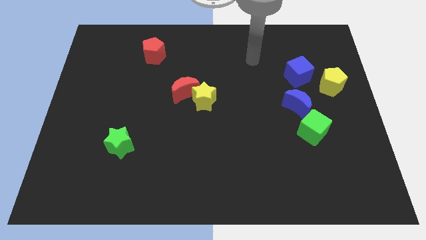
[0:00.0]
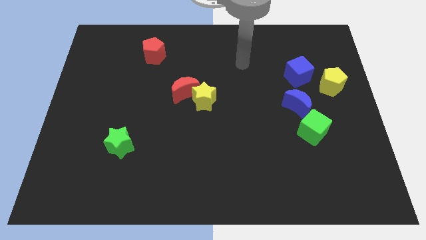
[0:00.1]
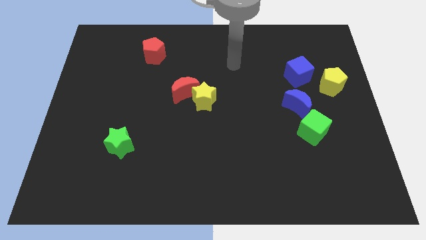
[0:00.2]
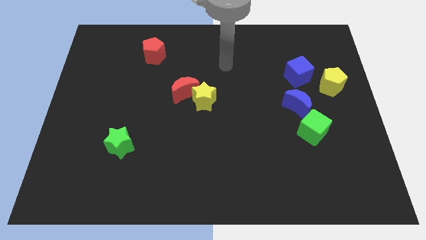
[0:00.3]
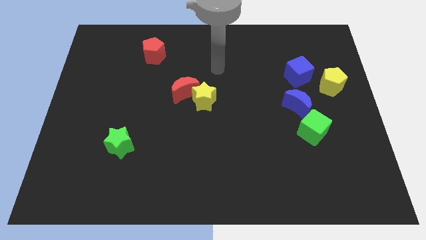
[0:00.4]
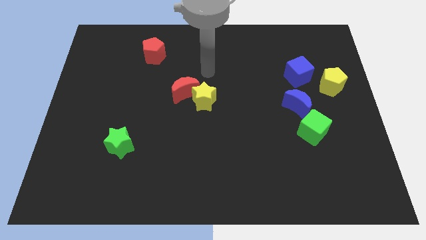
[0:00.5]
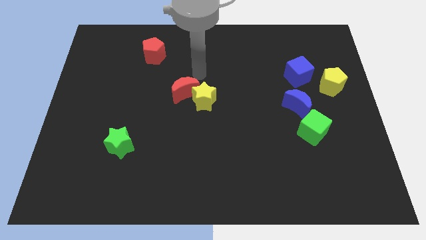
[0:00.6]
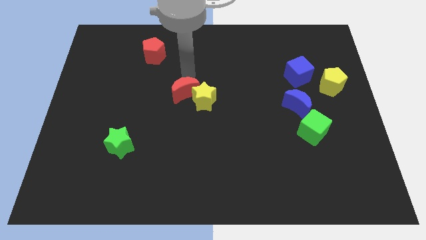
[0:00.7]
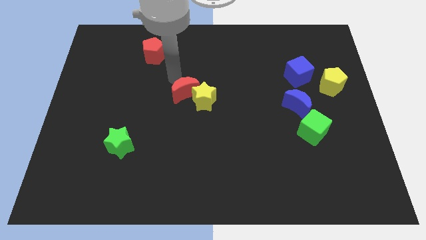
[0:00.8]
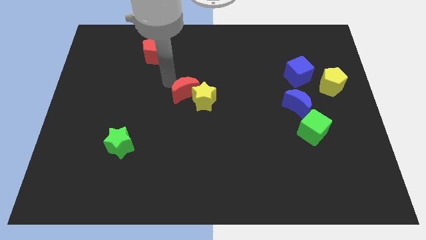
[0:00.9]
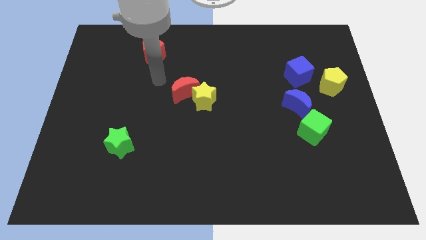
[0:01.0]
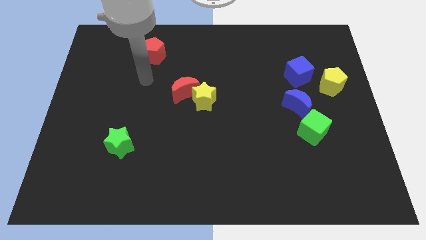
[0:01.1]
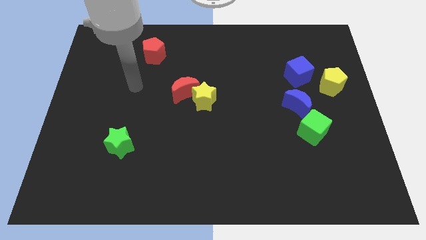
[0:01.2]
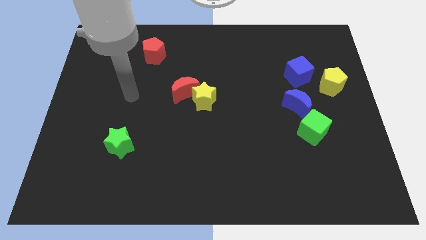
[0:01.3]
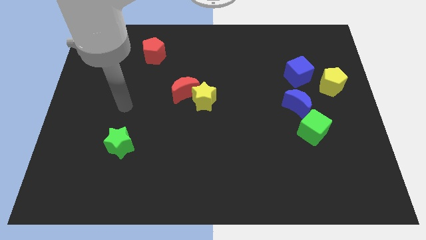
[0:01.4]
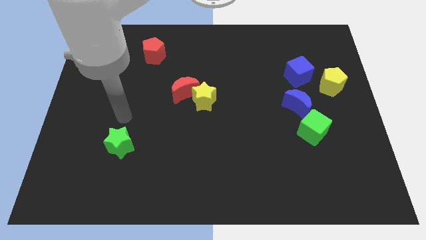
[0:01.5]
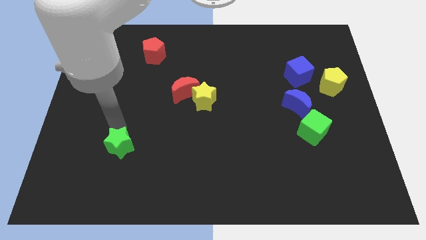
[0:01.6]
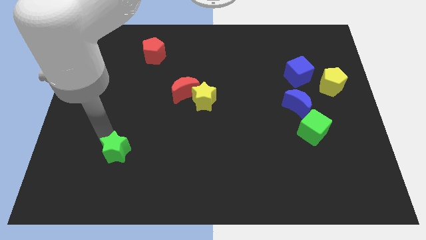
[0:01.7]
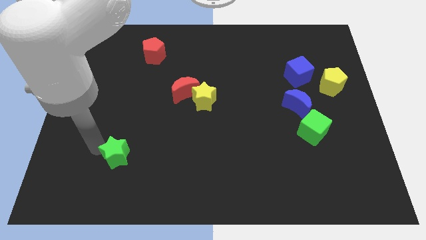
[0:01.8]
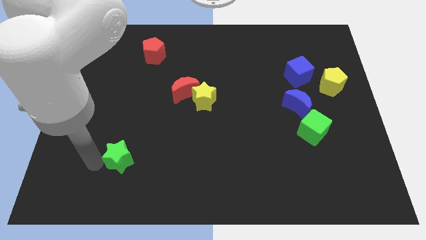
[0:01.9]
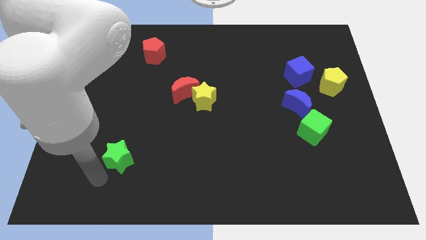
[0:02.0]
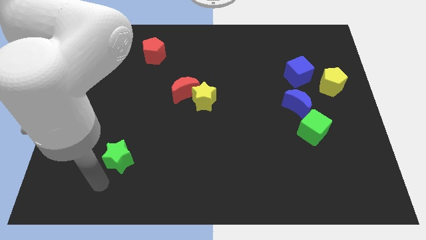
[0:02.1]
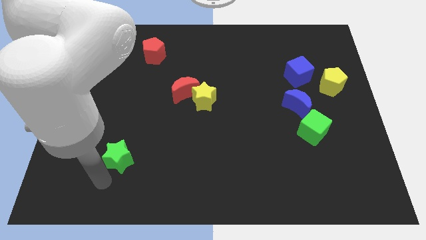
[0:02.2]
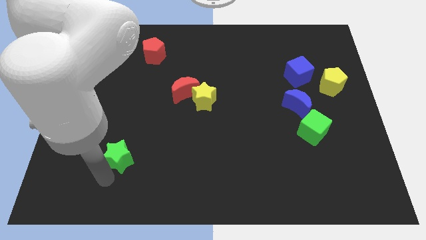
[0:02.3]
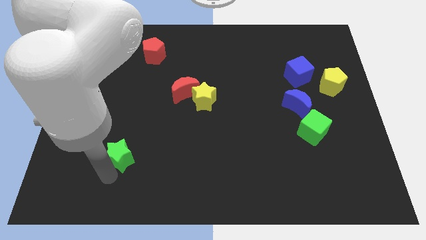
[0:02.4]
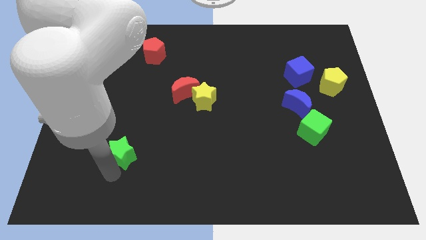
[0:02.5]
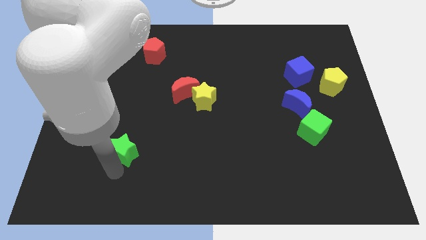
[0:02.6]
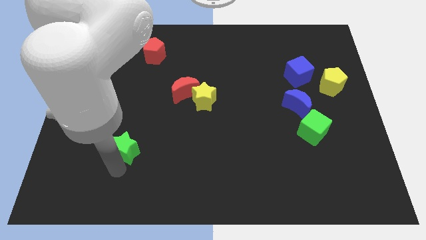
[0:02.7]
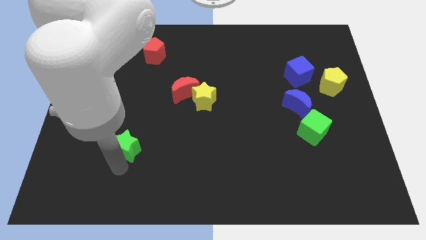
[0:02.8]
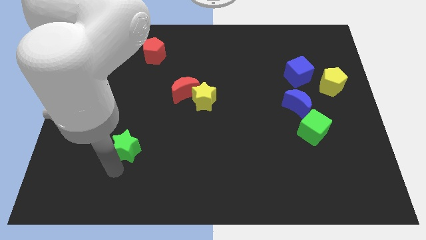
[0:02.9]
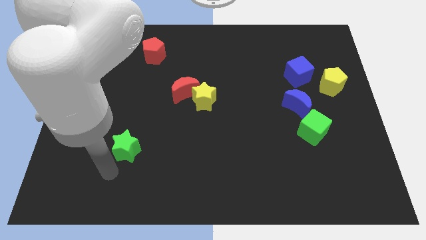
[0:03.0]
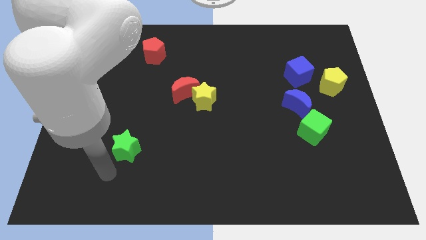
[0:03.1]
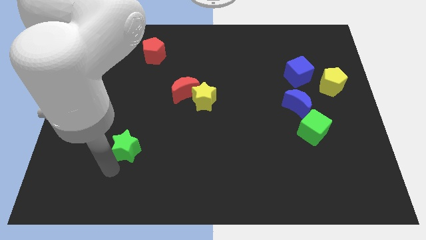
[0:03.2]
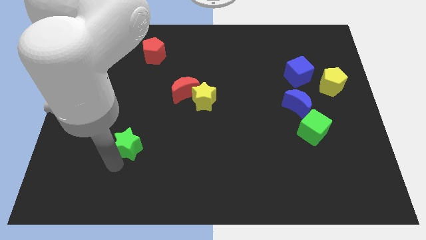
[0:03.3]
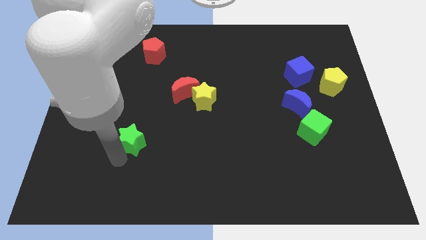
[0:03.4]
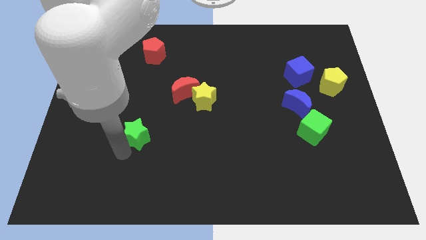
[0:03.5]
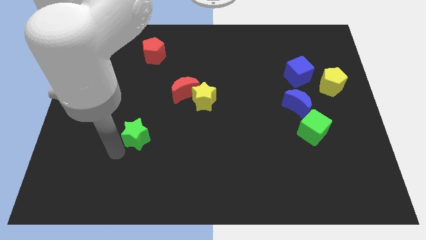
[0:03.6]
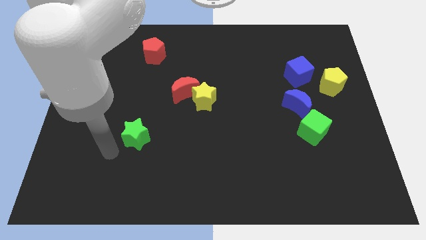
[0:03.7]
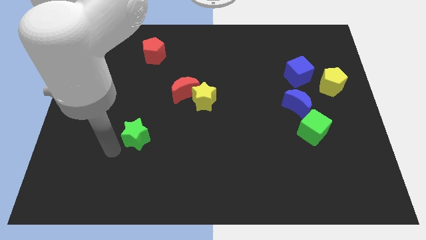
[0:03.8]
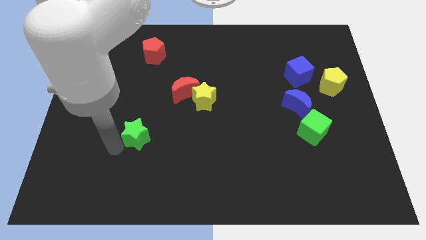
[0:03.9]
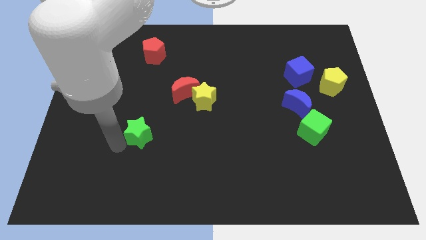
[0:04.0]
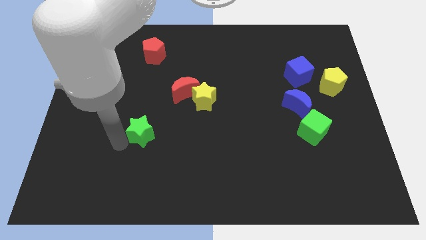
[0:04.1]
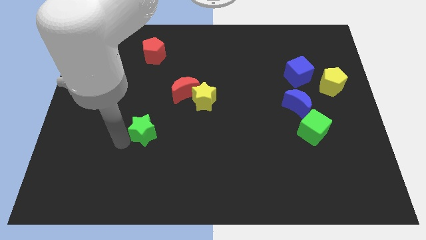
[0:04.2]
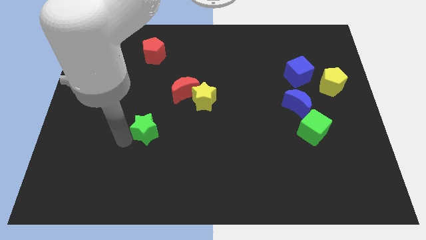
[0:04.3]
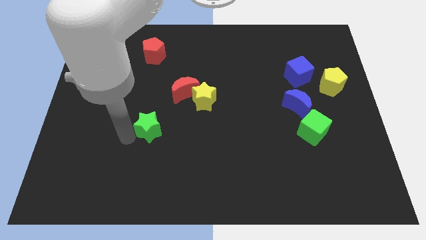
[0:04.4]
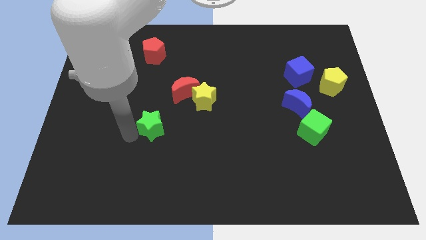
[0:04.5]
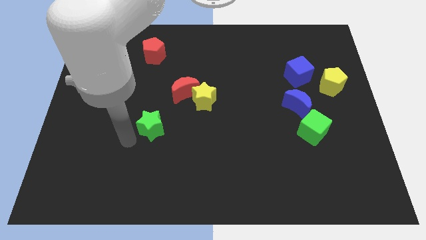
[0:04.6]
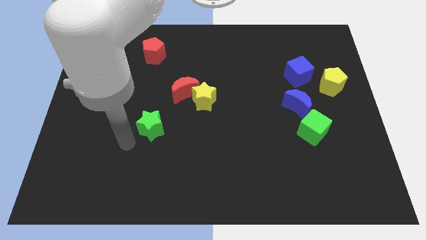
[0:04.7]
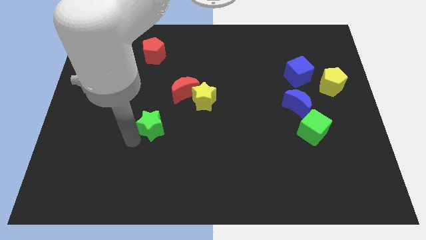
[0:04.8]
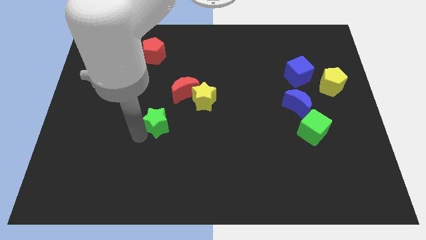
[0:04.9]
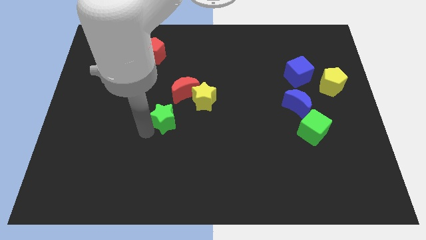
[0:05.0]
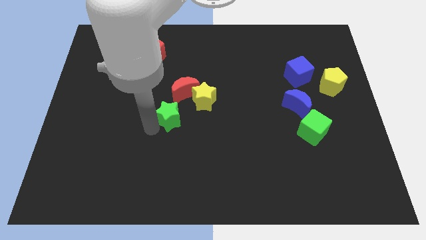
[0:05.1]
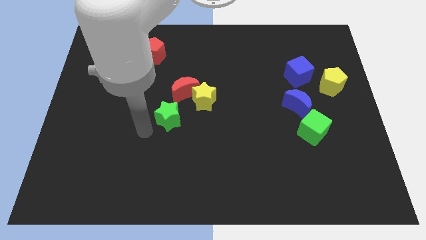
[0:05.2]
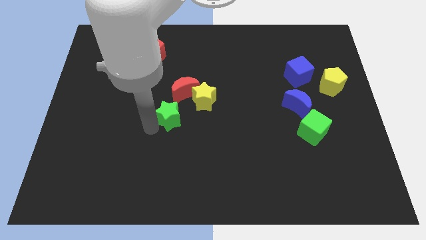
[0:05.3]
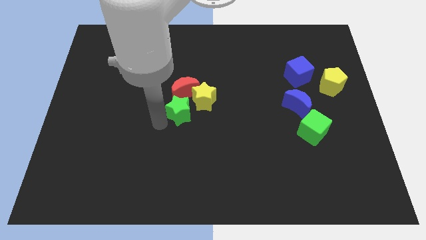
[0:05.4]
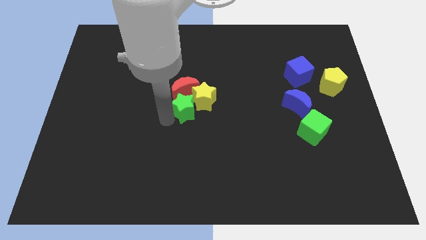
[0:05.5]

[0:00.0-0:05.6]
move the green star towards the yellow star
